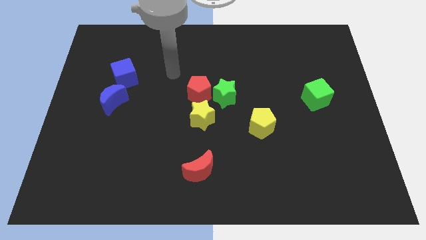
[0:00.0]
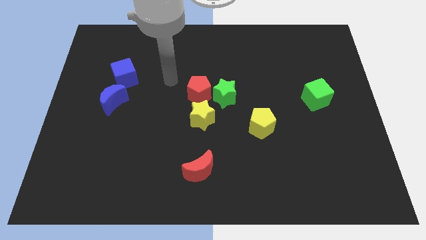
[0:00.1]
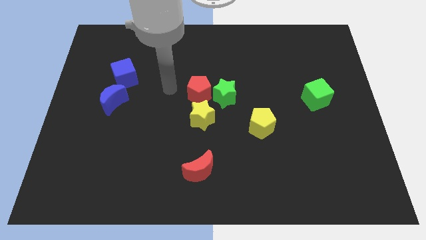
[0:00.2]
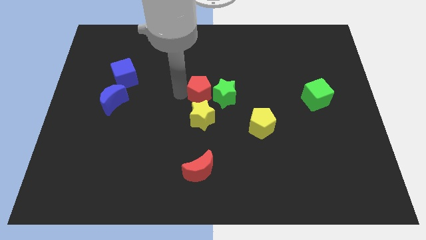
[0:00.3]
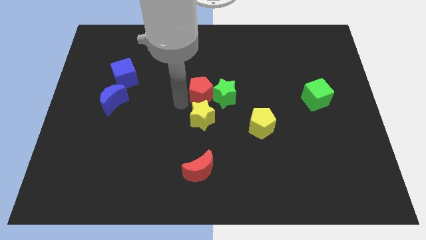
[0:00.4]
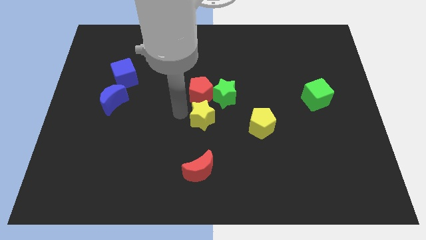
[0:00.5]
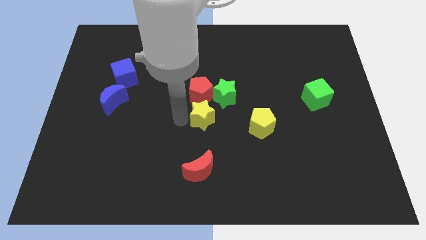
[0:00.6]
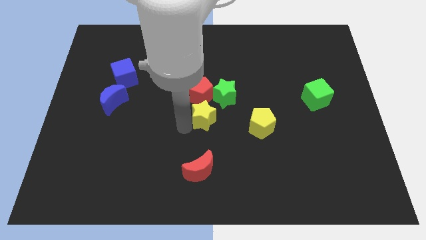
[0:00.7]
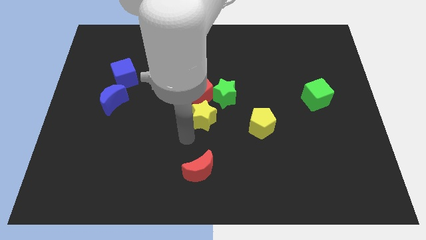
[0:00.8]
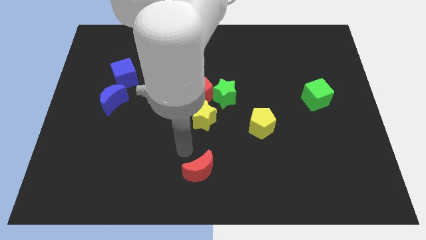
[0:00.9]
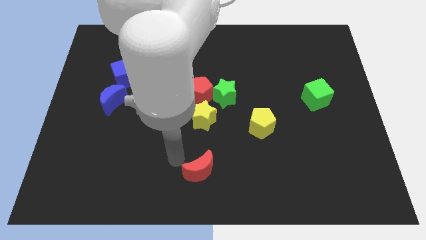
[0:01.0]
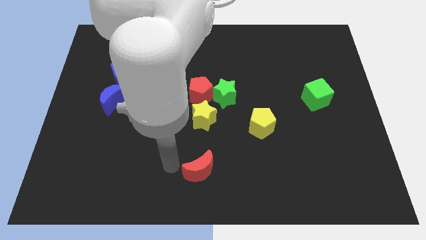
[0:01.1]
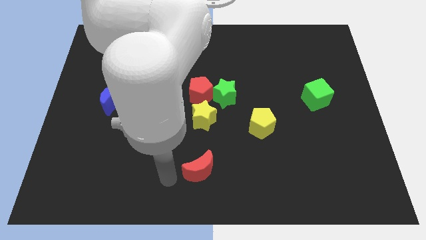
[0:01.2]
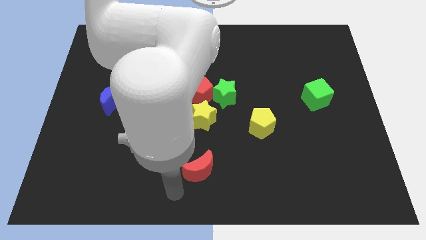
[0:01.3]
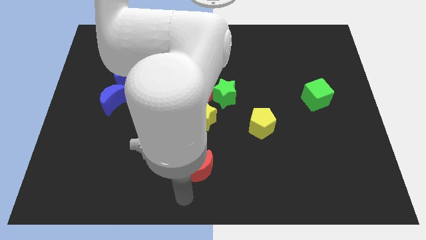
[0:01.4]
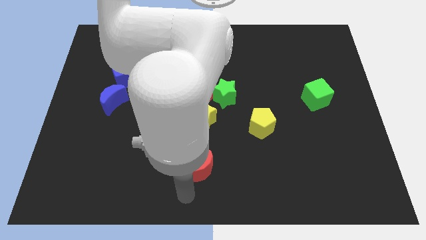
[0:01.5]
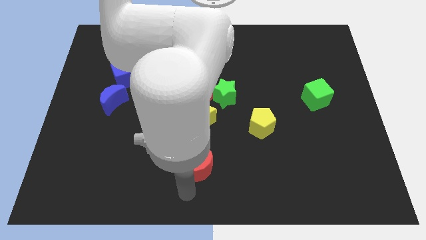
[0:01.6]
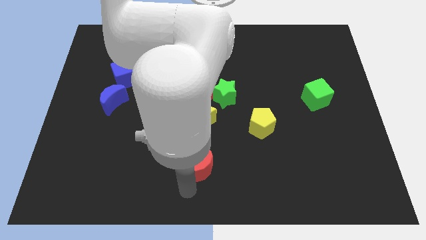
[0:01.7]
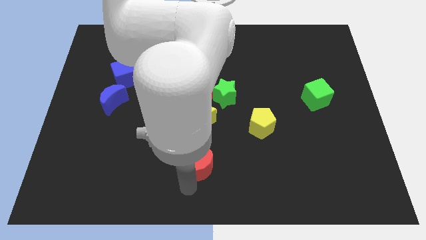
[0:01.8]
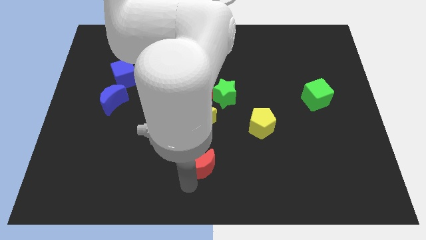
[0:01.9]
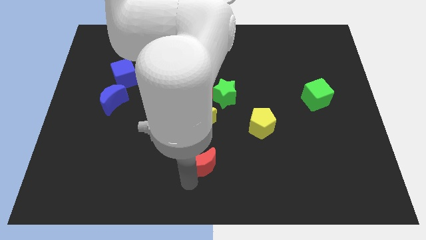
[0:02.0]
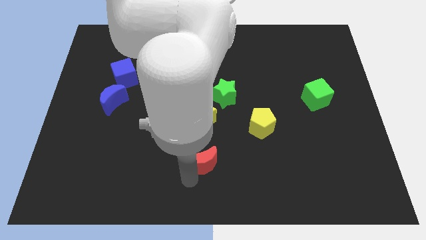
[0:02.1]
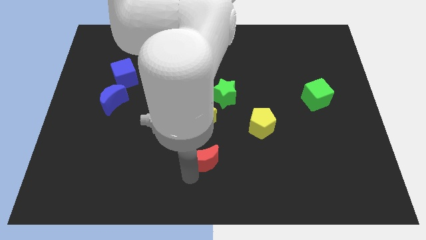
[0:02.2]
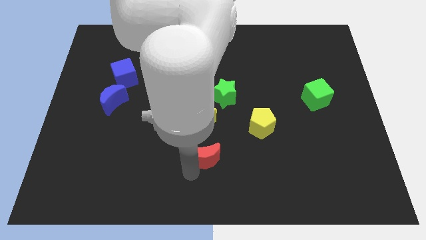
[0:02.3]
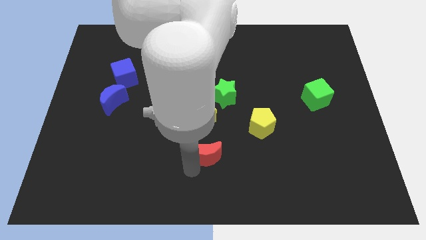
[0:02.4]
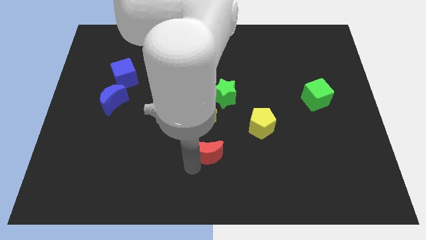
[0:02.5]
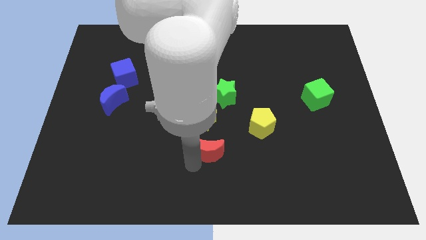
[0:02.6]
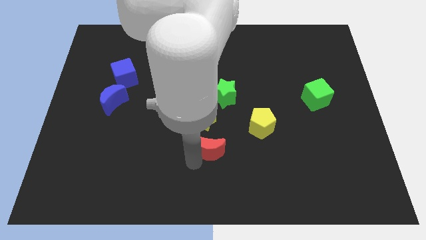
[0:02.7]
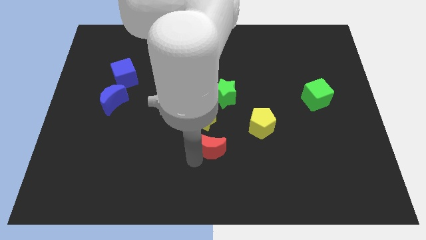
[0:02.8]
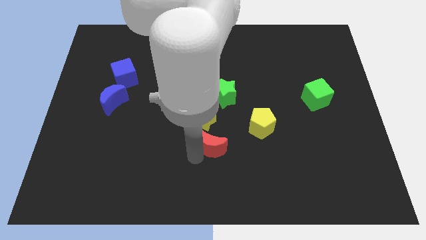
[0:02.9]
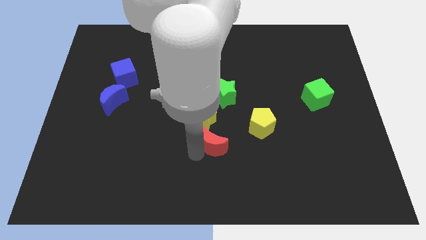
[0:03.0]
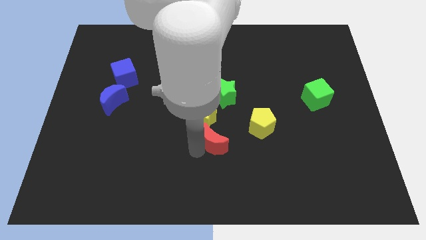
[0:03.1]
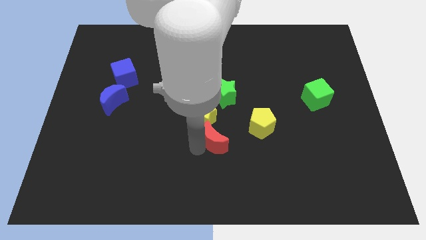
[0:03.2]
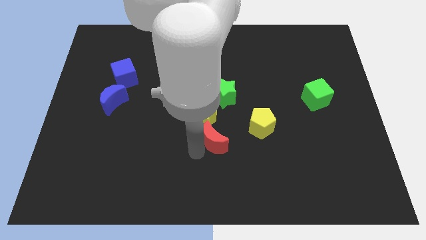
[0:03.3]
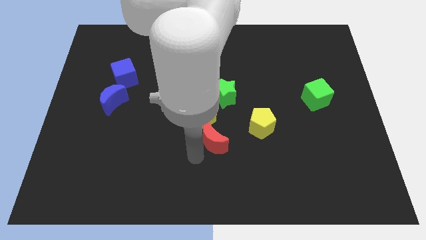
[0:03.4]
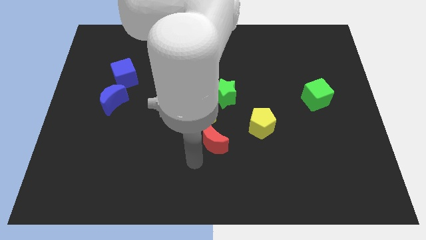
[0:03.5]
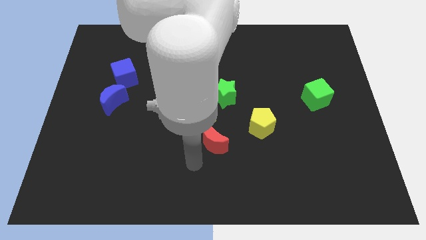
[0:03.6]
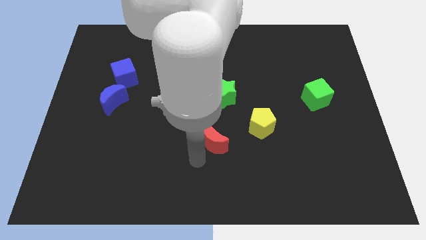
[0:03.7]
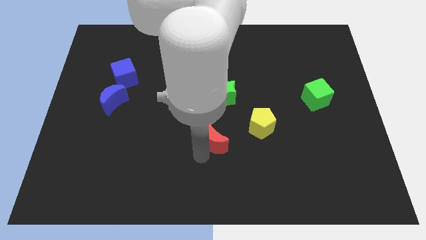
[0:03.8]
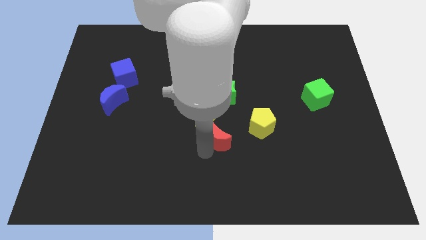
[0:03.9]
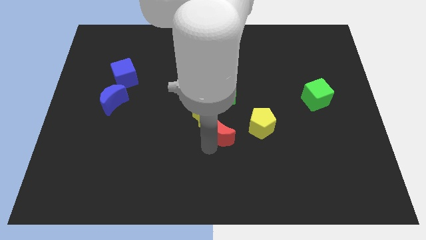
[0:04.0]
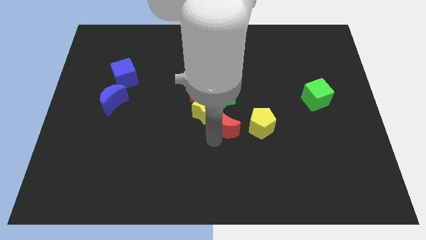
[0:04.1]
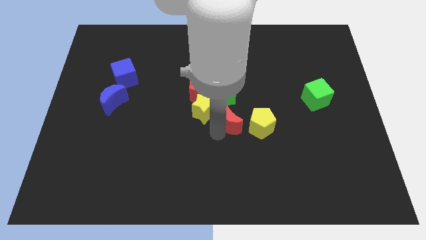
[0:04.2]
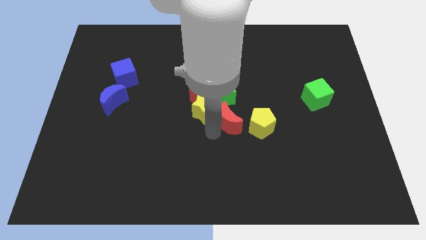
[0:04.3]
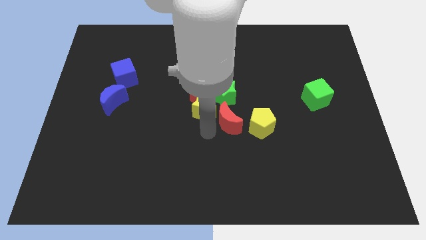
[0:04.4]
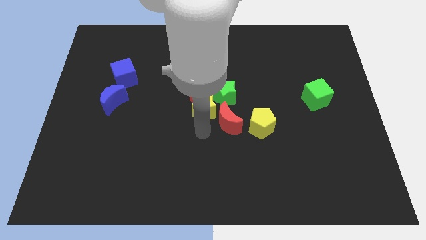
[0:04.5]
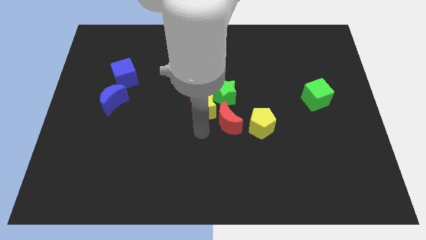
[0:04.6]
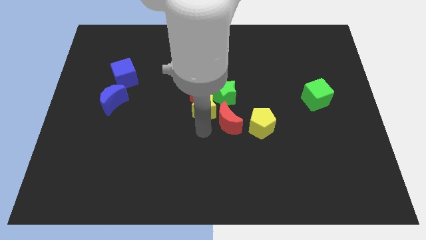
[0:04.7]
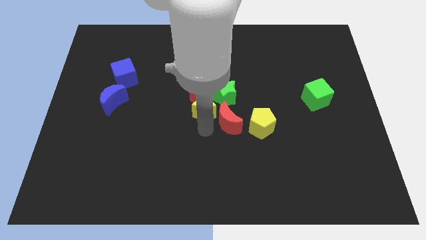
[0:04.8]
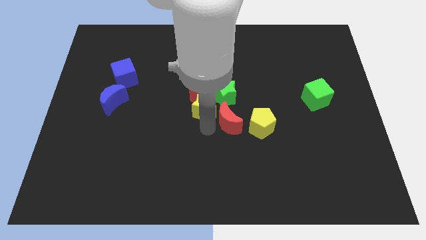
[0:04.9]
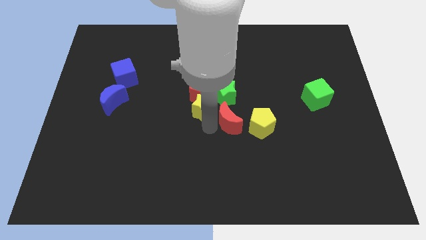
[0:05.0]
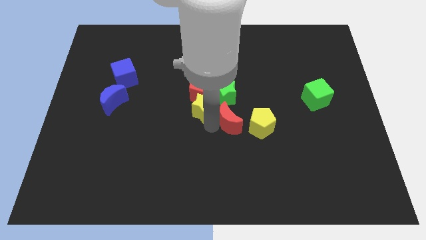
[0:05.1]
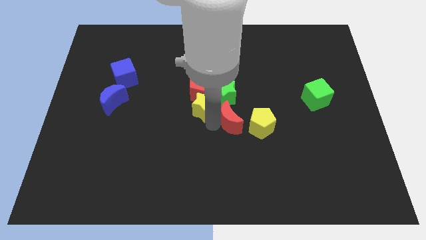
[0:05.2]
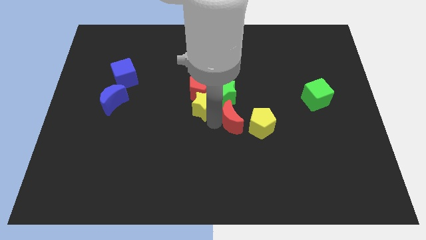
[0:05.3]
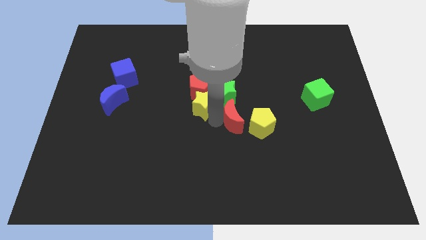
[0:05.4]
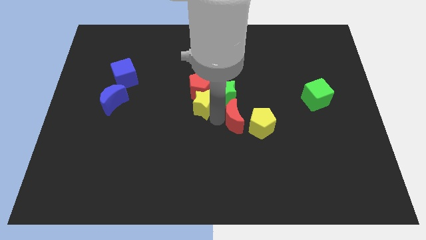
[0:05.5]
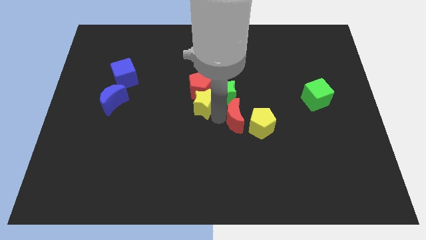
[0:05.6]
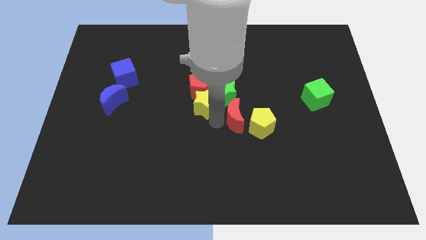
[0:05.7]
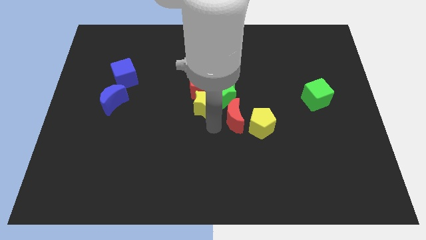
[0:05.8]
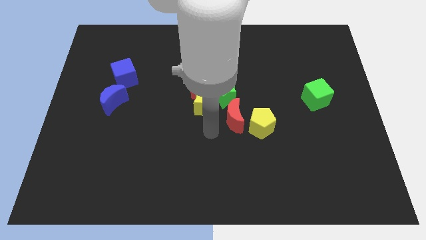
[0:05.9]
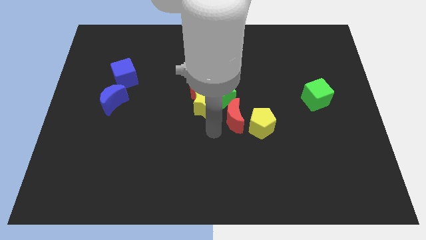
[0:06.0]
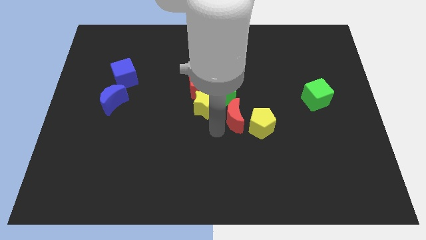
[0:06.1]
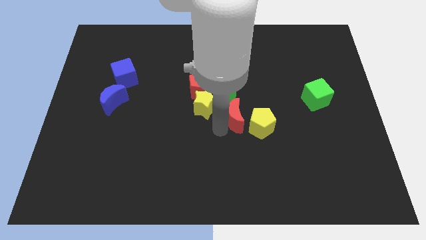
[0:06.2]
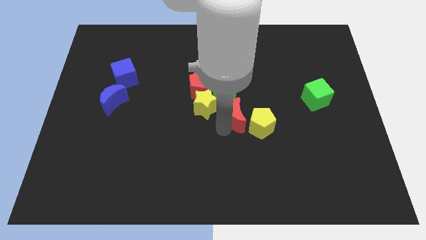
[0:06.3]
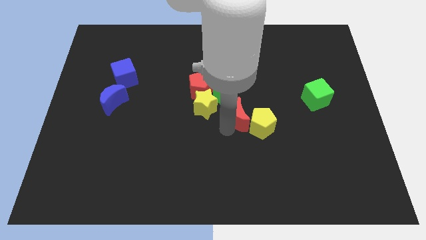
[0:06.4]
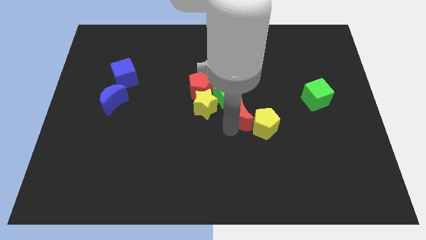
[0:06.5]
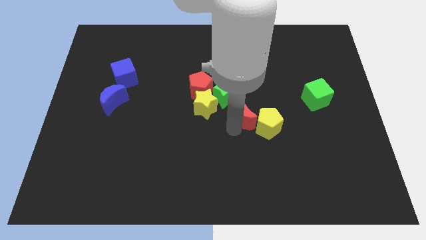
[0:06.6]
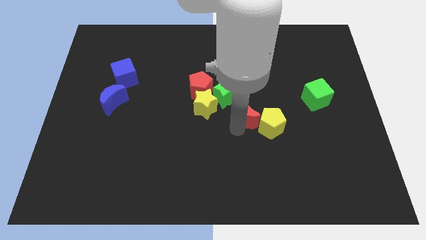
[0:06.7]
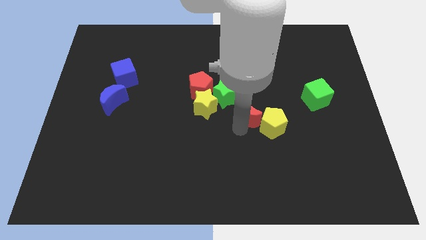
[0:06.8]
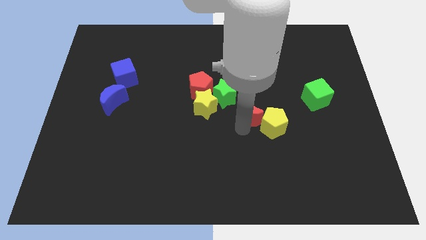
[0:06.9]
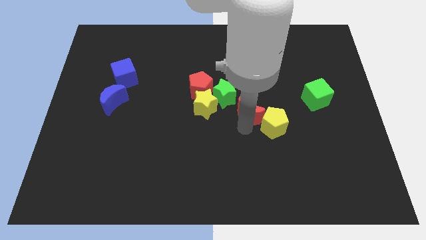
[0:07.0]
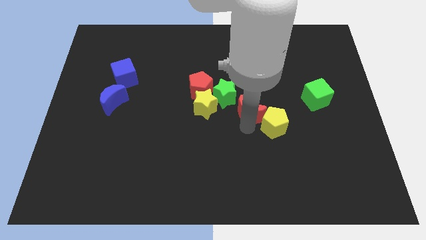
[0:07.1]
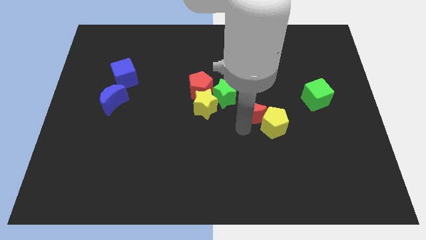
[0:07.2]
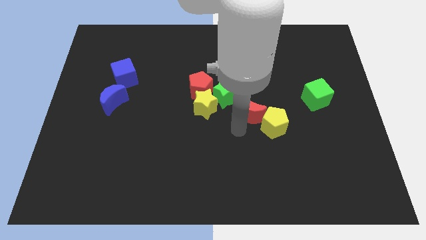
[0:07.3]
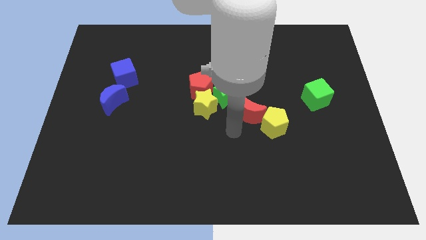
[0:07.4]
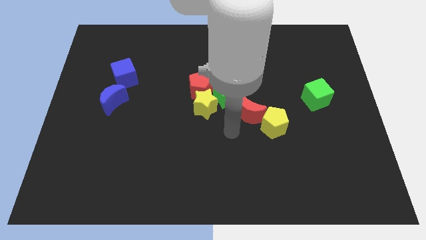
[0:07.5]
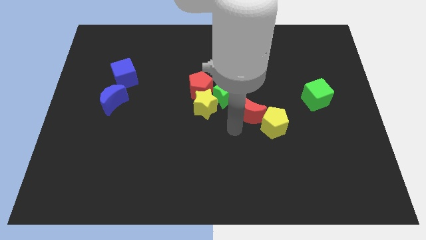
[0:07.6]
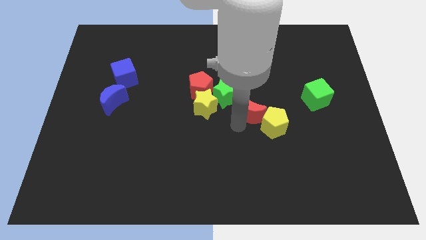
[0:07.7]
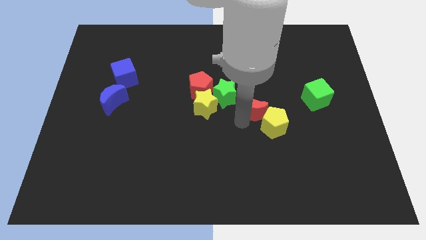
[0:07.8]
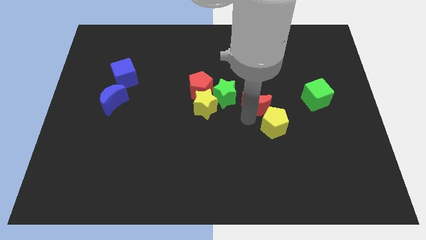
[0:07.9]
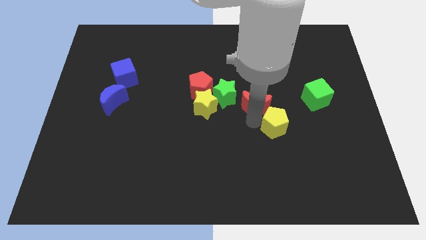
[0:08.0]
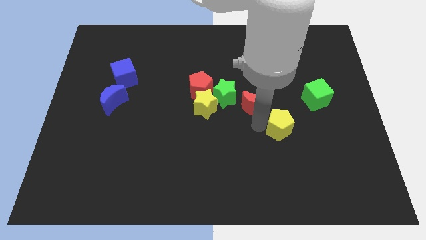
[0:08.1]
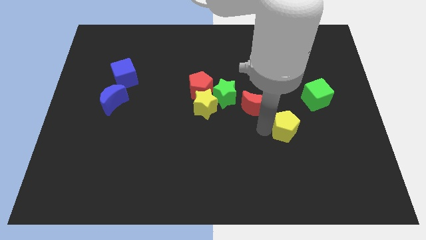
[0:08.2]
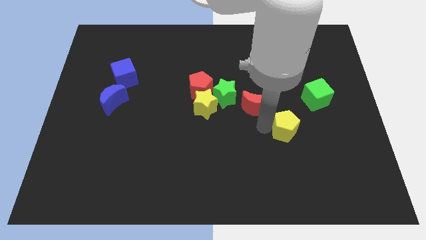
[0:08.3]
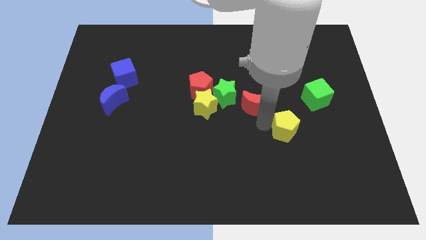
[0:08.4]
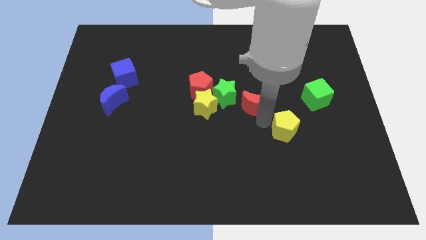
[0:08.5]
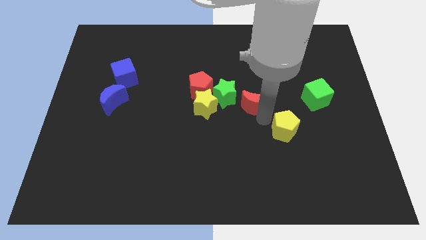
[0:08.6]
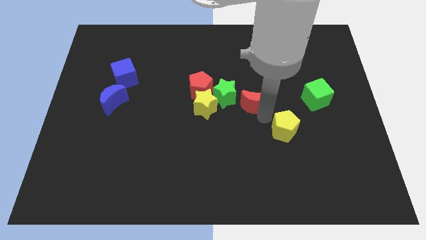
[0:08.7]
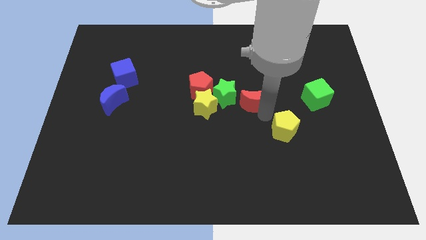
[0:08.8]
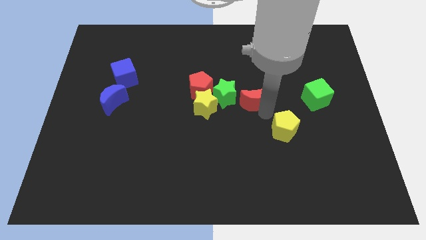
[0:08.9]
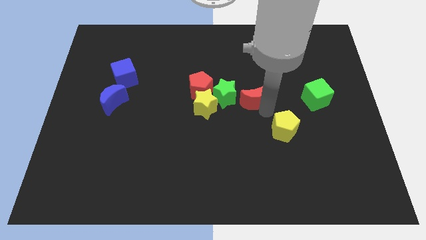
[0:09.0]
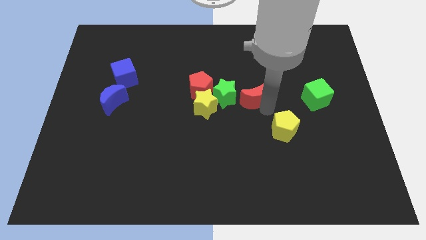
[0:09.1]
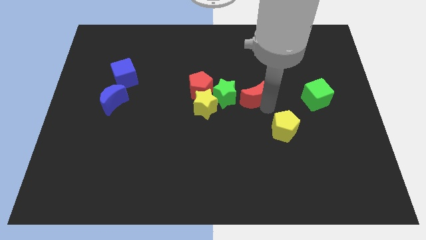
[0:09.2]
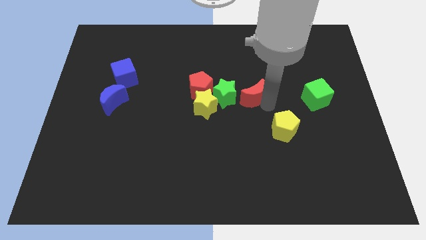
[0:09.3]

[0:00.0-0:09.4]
move the red moon to the top right side of the green star
